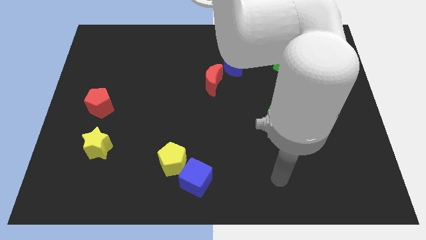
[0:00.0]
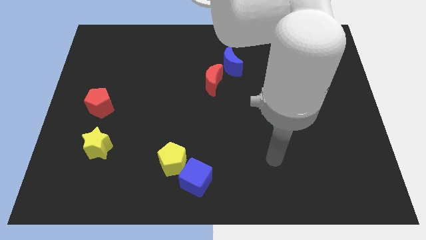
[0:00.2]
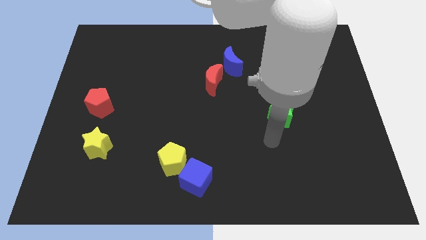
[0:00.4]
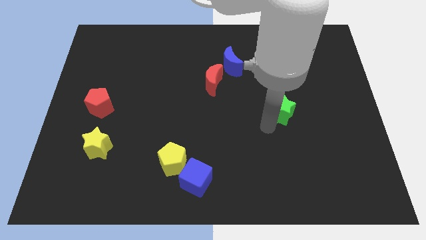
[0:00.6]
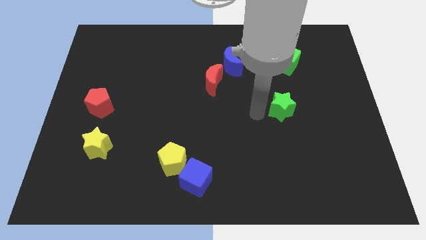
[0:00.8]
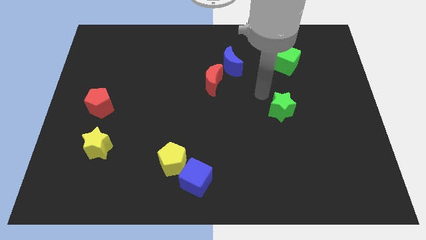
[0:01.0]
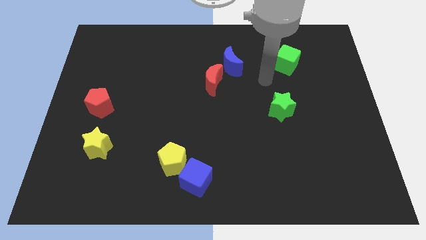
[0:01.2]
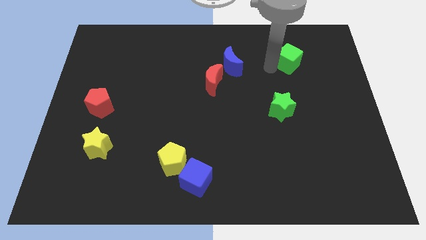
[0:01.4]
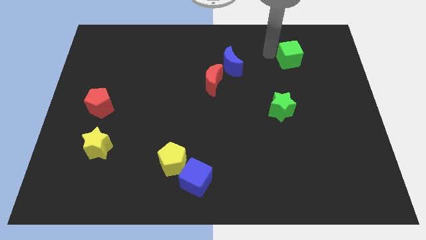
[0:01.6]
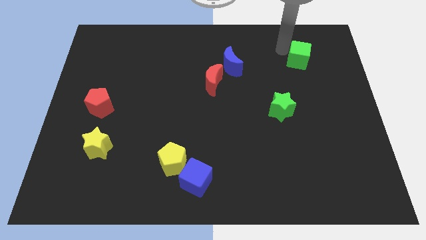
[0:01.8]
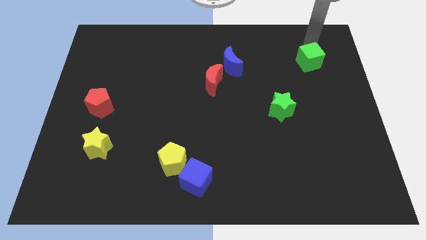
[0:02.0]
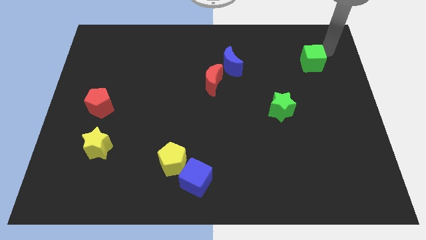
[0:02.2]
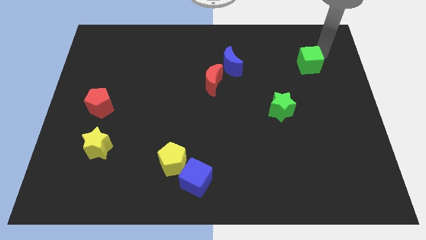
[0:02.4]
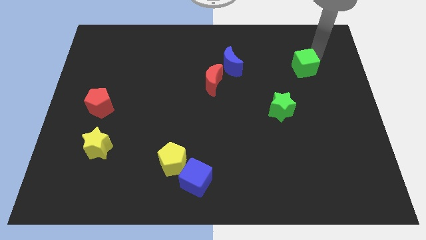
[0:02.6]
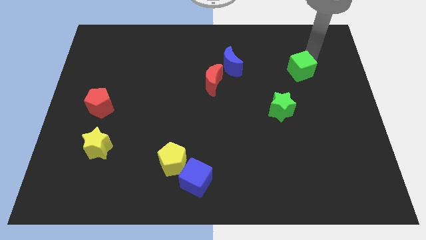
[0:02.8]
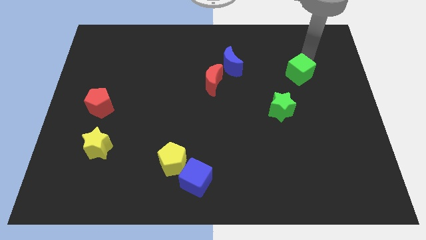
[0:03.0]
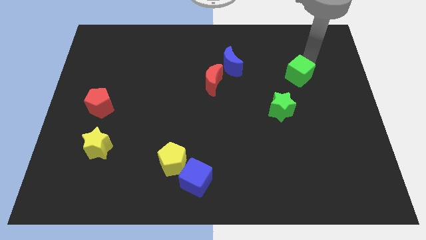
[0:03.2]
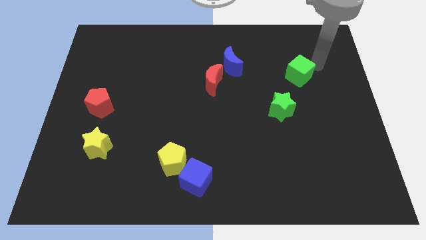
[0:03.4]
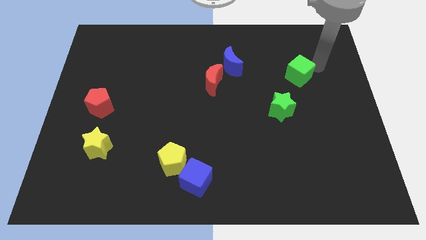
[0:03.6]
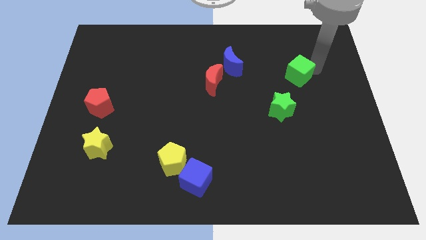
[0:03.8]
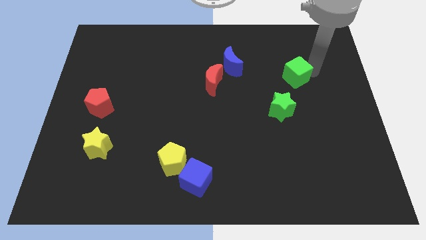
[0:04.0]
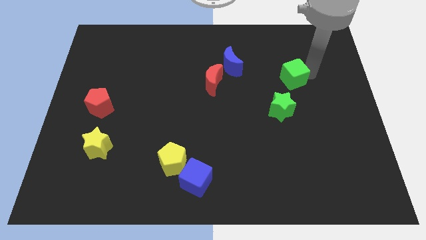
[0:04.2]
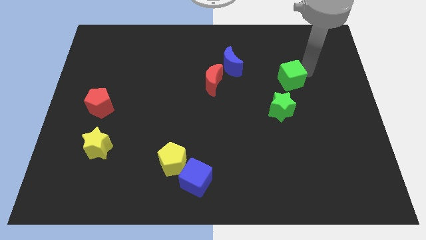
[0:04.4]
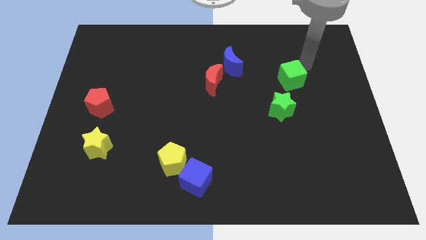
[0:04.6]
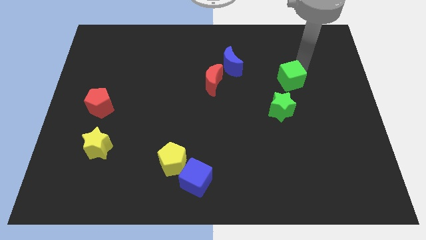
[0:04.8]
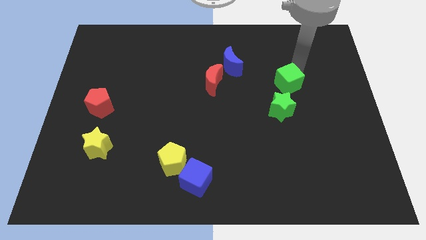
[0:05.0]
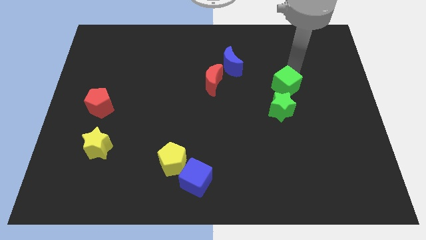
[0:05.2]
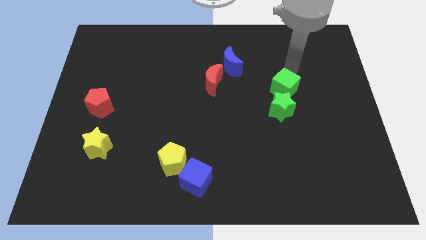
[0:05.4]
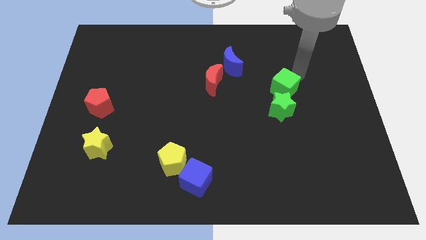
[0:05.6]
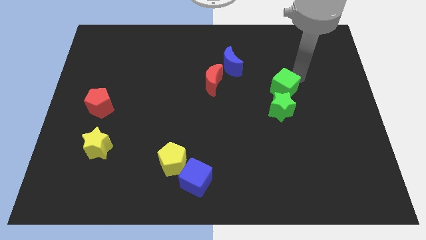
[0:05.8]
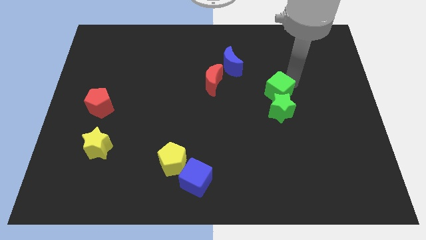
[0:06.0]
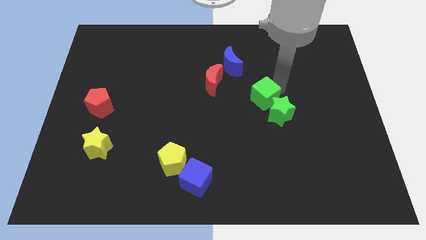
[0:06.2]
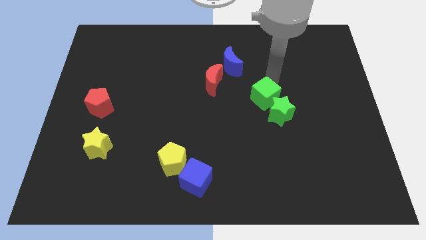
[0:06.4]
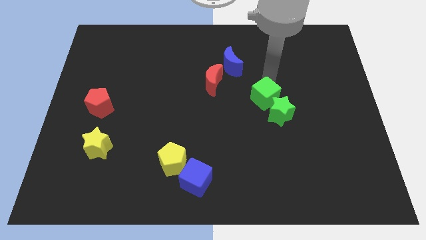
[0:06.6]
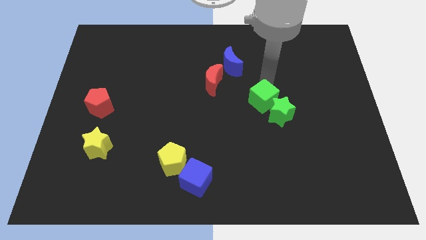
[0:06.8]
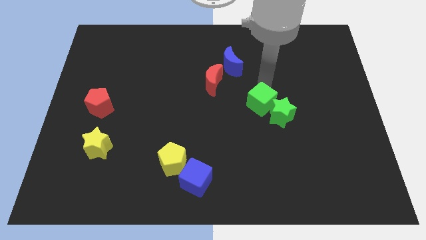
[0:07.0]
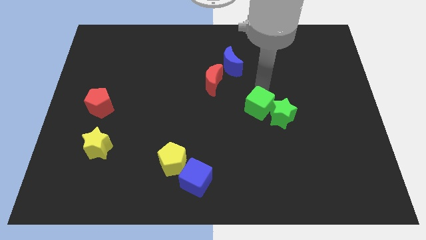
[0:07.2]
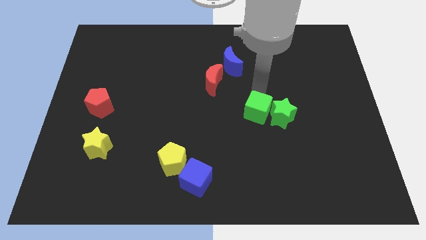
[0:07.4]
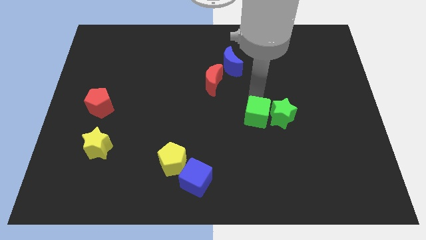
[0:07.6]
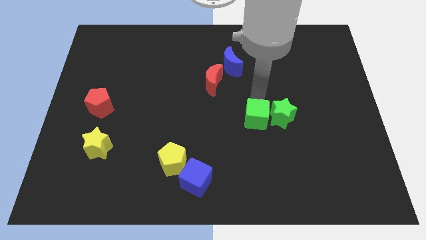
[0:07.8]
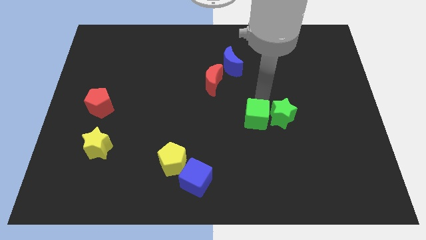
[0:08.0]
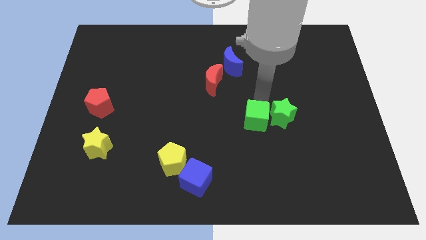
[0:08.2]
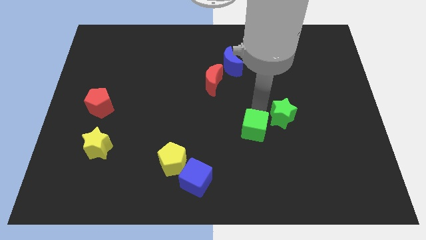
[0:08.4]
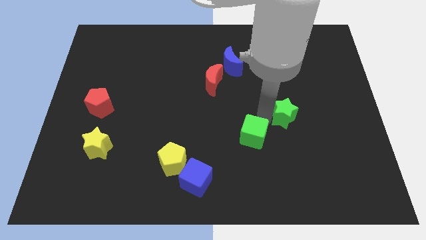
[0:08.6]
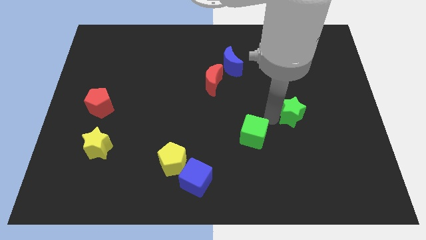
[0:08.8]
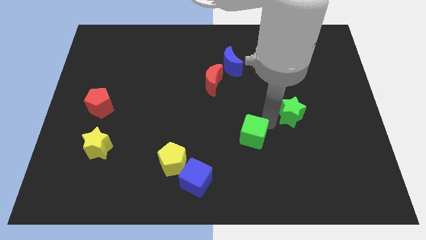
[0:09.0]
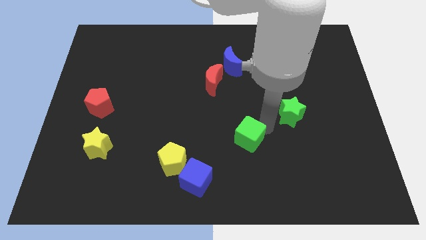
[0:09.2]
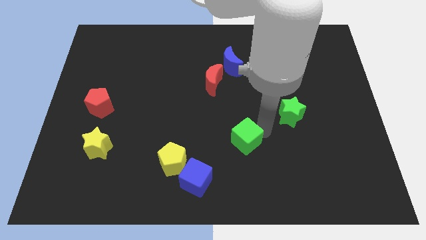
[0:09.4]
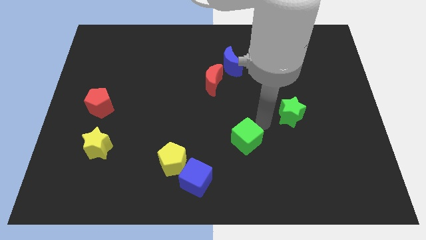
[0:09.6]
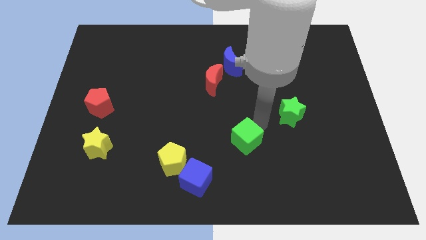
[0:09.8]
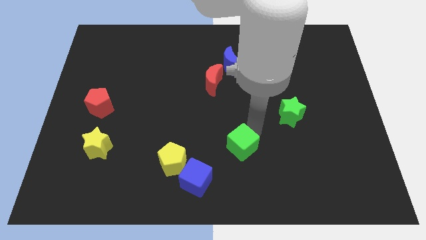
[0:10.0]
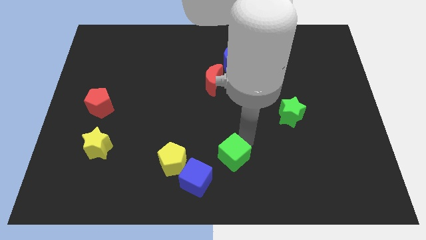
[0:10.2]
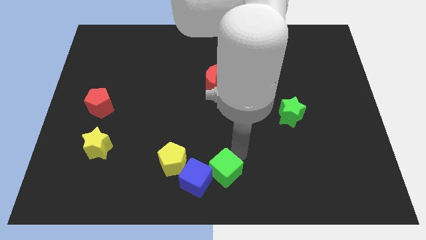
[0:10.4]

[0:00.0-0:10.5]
push the green cube towards the blue cube

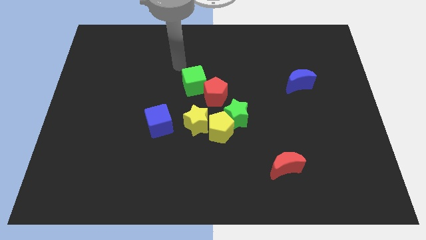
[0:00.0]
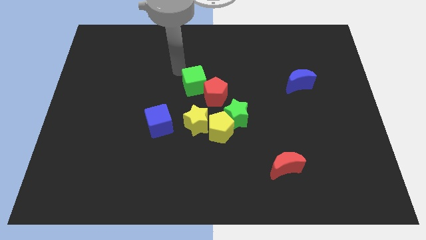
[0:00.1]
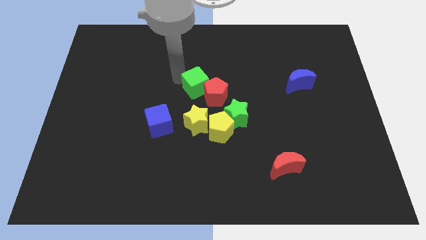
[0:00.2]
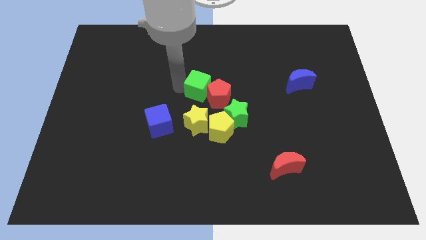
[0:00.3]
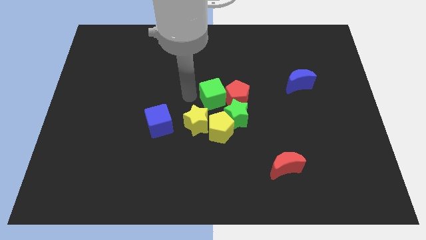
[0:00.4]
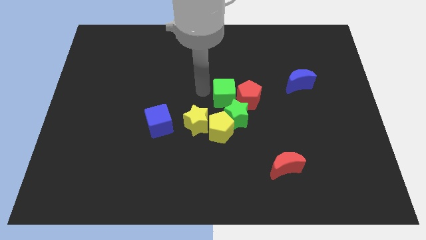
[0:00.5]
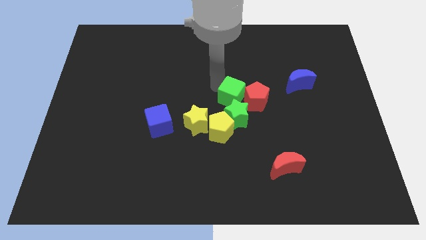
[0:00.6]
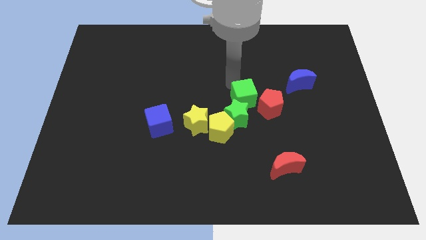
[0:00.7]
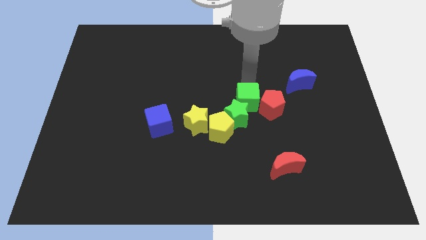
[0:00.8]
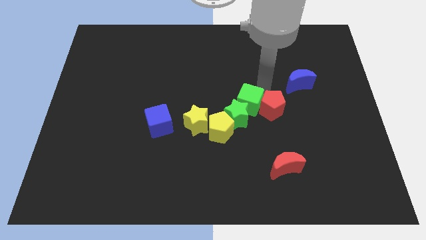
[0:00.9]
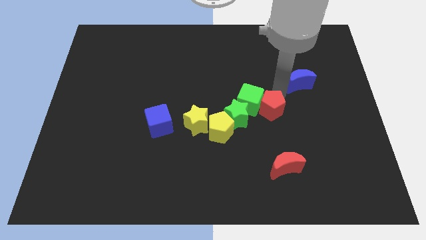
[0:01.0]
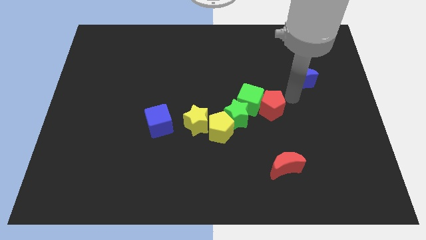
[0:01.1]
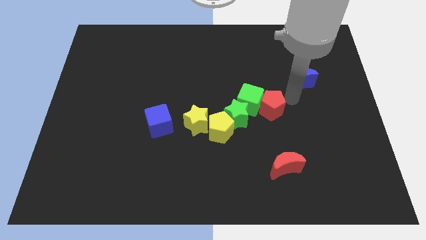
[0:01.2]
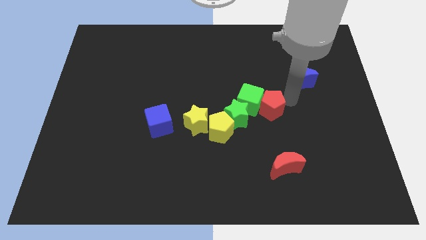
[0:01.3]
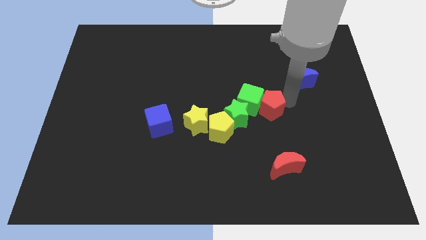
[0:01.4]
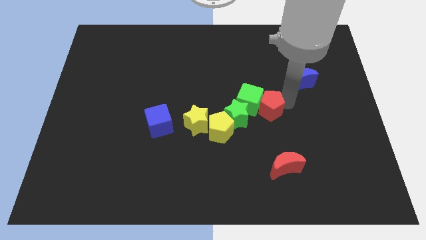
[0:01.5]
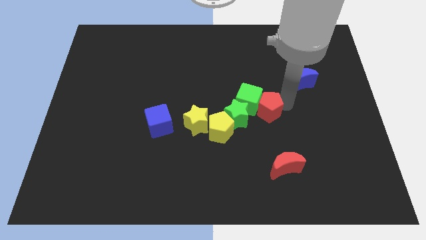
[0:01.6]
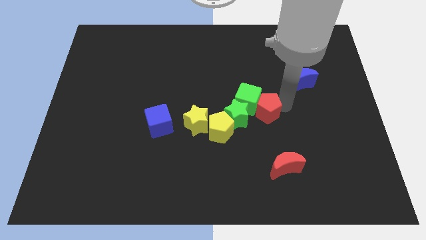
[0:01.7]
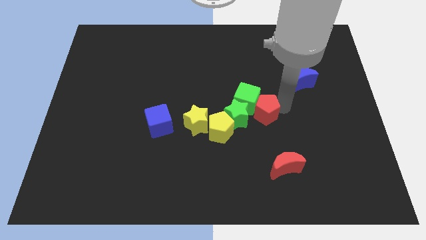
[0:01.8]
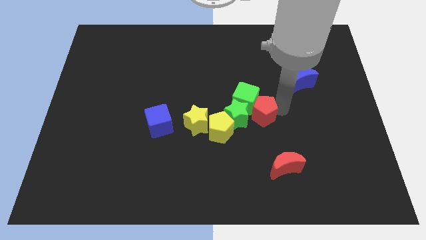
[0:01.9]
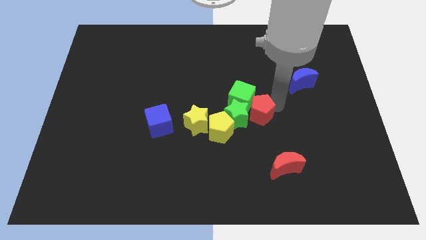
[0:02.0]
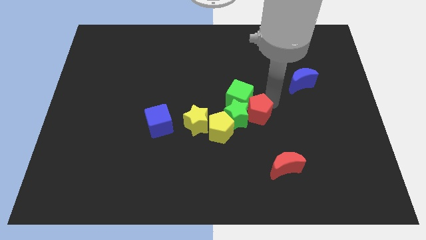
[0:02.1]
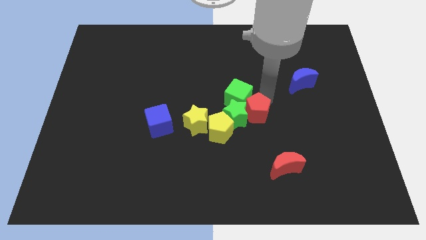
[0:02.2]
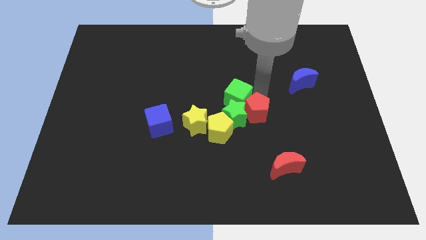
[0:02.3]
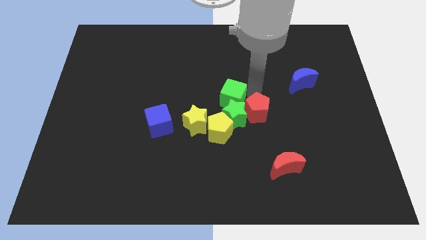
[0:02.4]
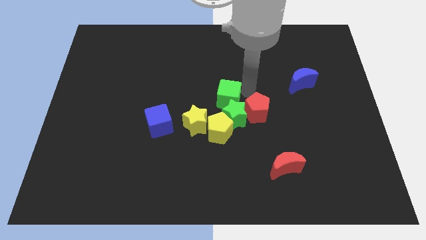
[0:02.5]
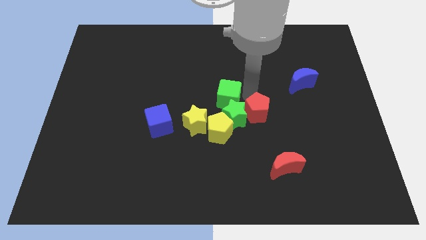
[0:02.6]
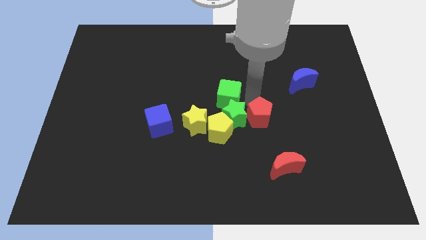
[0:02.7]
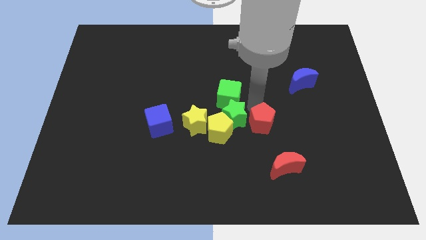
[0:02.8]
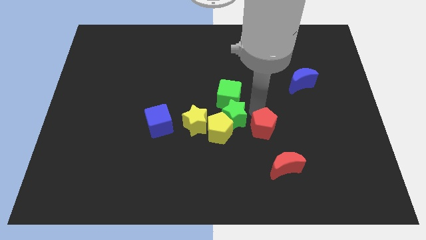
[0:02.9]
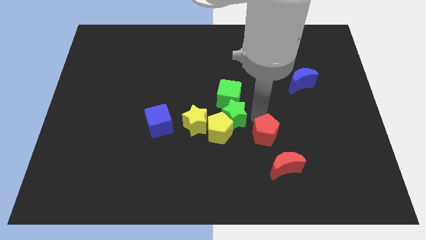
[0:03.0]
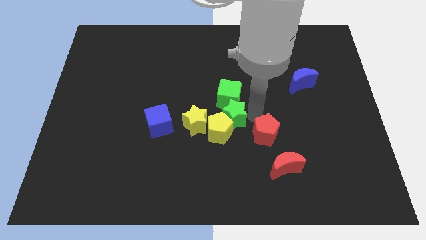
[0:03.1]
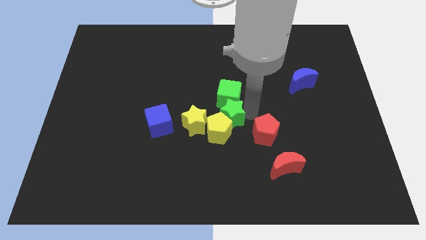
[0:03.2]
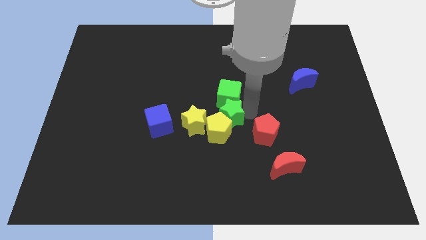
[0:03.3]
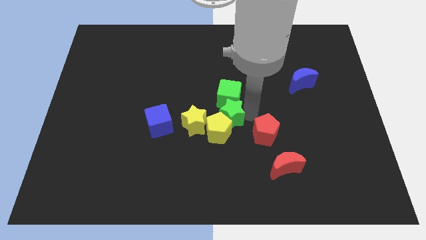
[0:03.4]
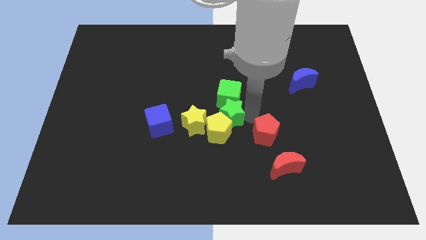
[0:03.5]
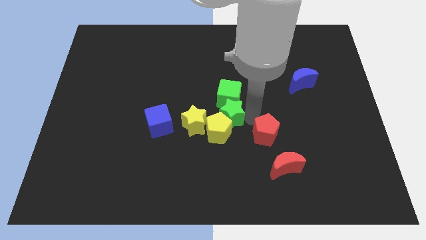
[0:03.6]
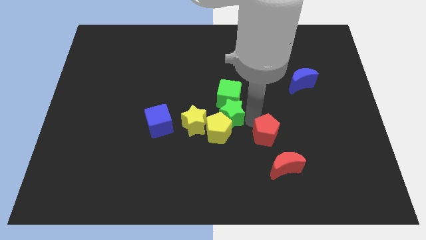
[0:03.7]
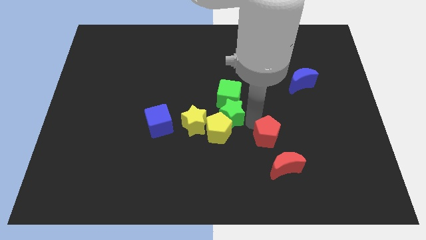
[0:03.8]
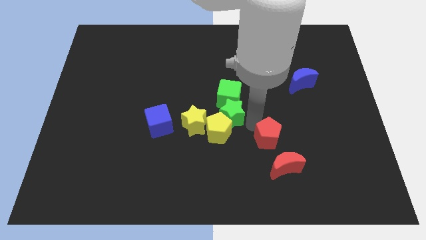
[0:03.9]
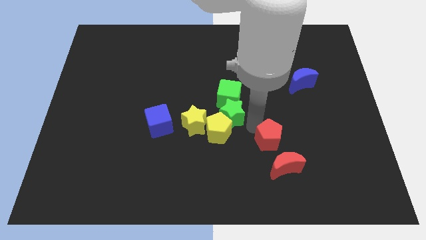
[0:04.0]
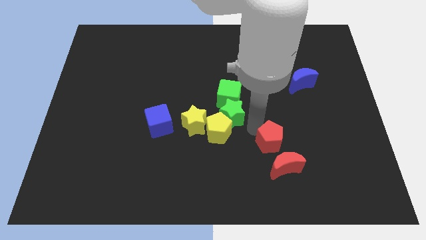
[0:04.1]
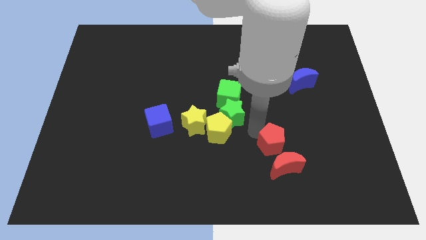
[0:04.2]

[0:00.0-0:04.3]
move the red pentagon to the red moon
